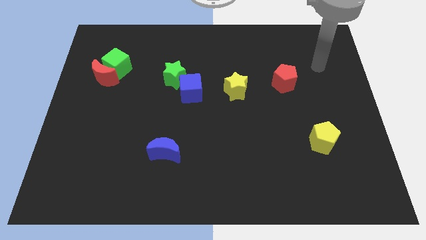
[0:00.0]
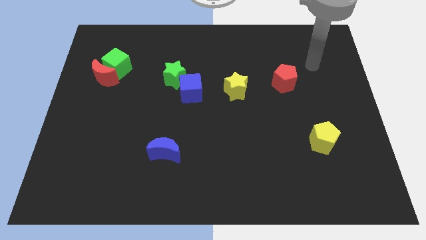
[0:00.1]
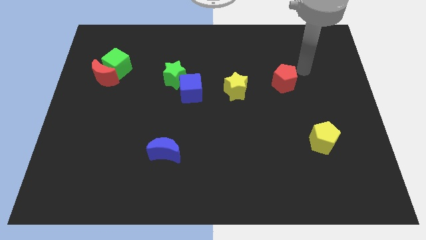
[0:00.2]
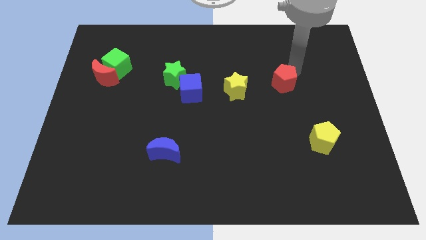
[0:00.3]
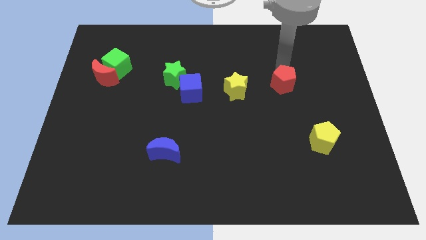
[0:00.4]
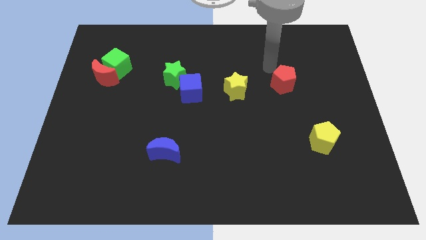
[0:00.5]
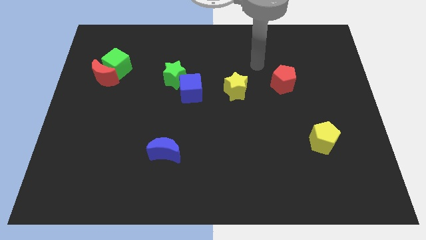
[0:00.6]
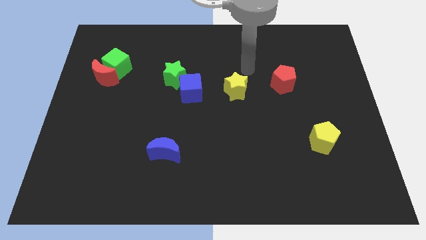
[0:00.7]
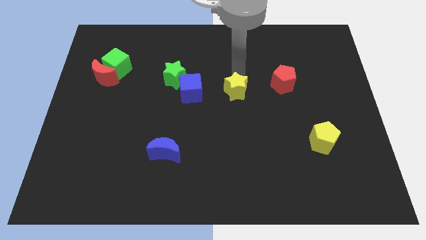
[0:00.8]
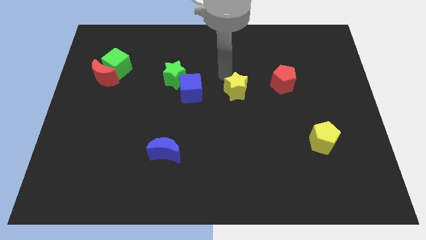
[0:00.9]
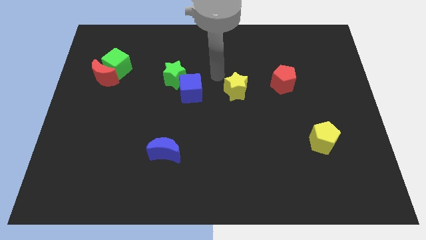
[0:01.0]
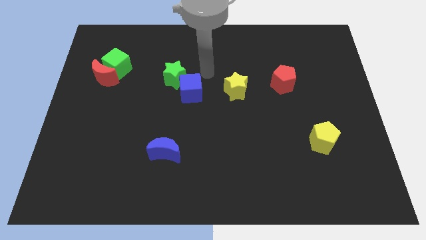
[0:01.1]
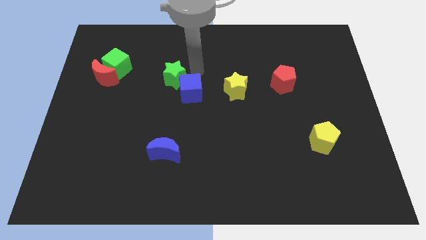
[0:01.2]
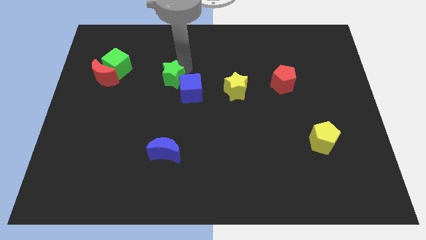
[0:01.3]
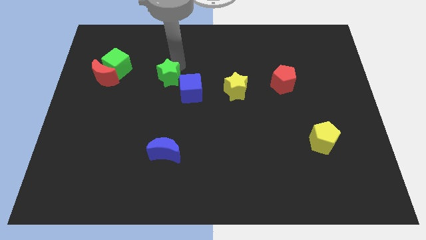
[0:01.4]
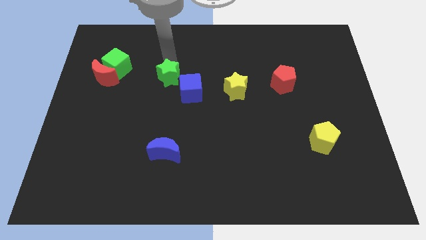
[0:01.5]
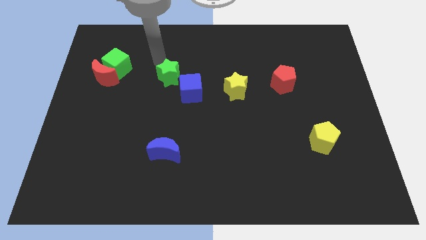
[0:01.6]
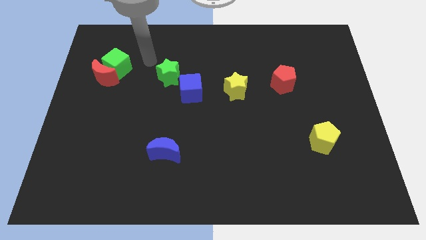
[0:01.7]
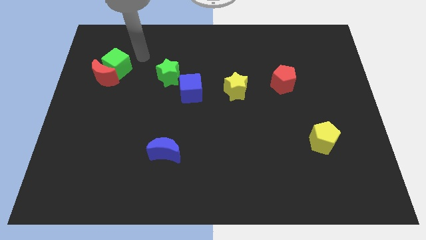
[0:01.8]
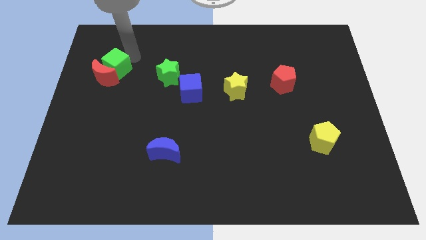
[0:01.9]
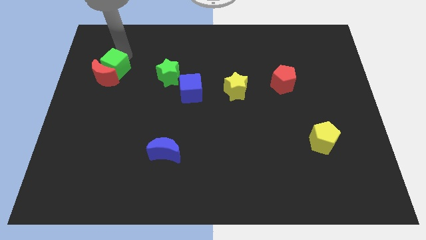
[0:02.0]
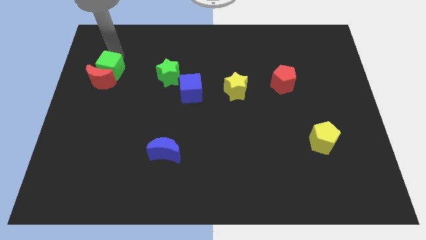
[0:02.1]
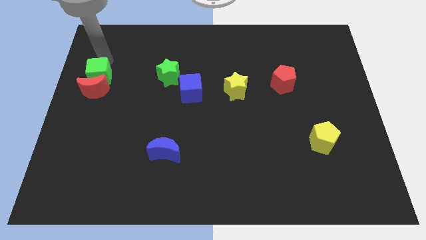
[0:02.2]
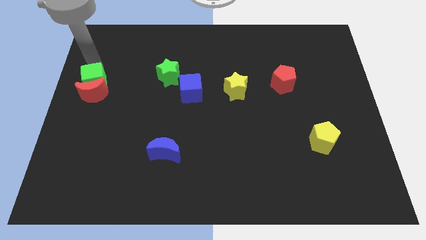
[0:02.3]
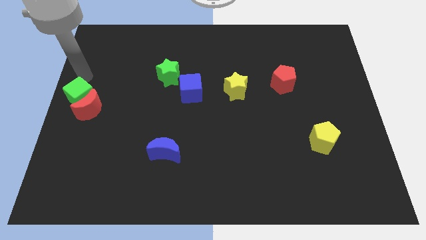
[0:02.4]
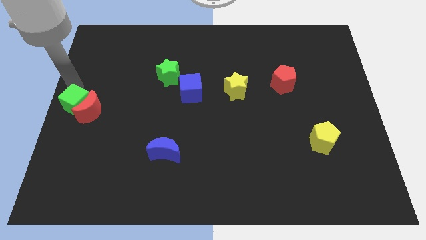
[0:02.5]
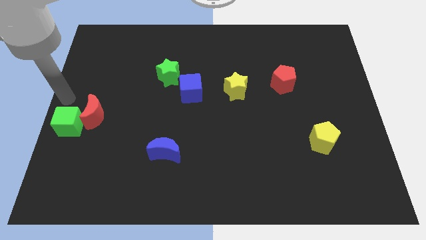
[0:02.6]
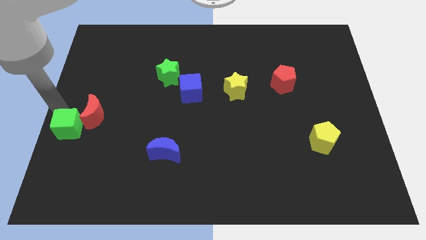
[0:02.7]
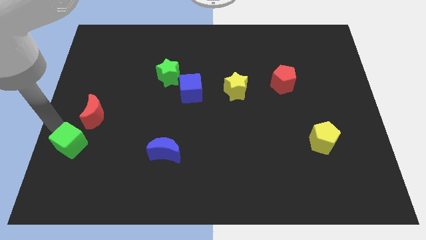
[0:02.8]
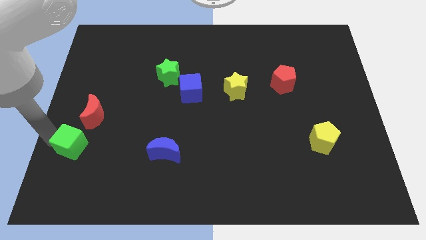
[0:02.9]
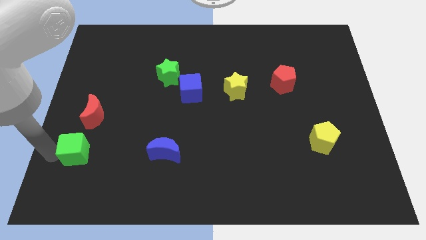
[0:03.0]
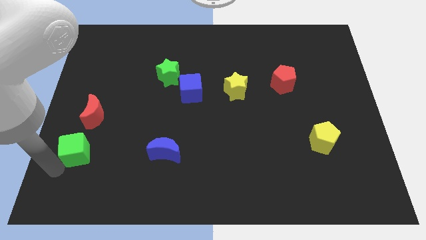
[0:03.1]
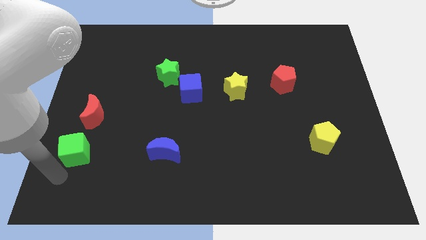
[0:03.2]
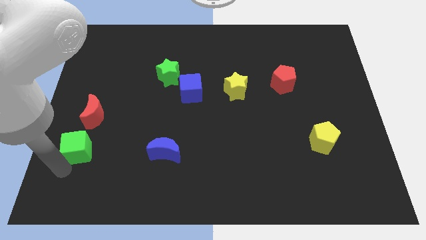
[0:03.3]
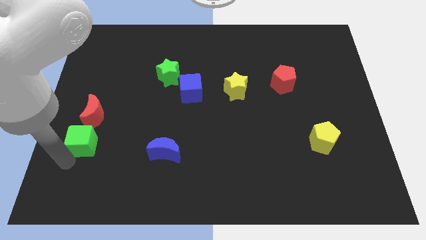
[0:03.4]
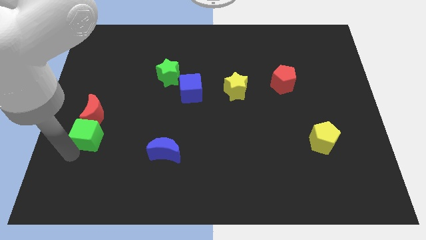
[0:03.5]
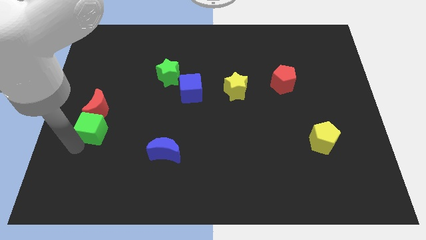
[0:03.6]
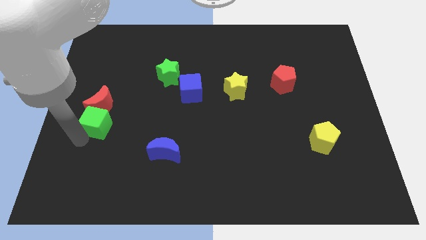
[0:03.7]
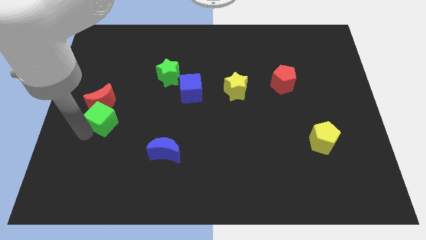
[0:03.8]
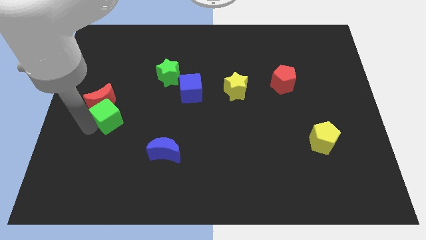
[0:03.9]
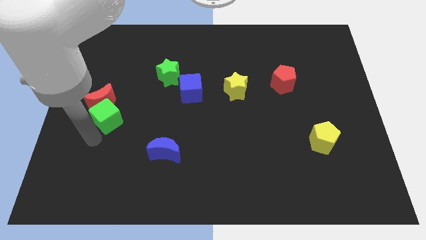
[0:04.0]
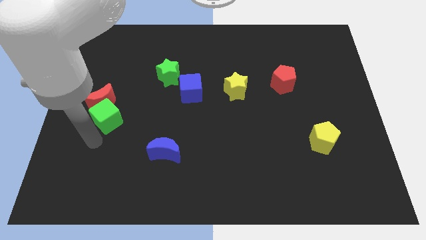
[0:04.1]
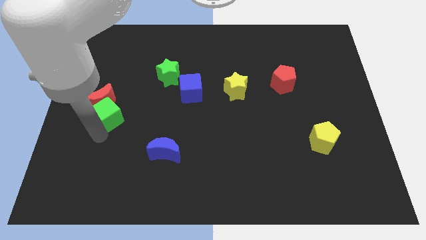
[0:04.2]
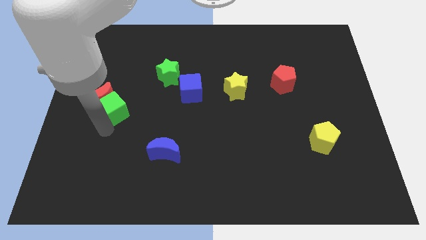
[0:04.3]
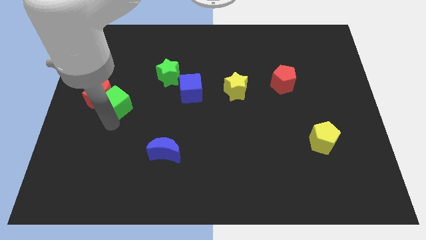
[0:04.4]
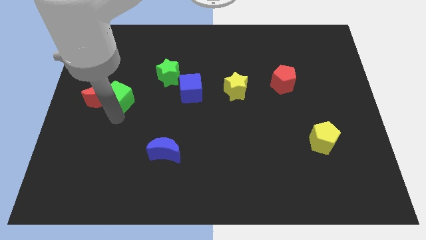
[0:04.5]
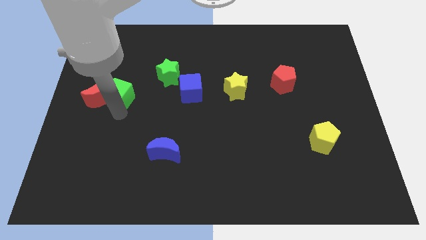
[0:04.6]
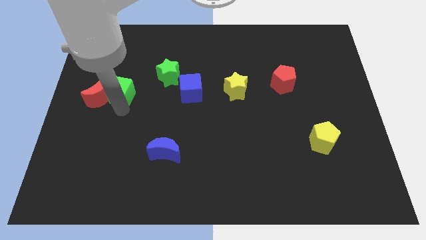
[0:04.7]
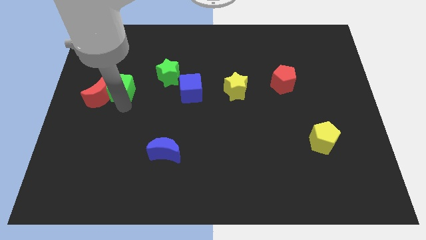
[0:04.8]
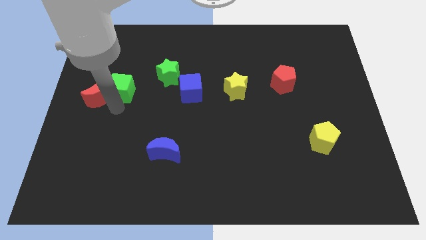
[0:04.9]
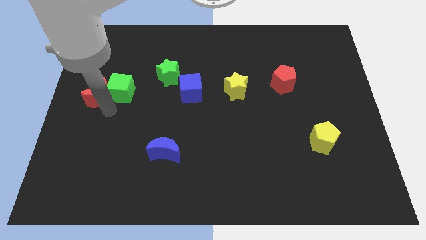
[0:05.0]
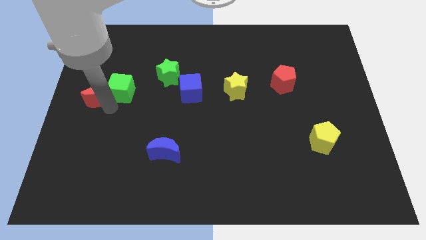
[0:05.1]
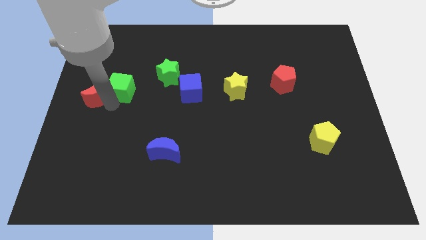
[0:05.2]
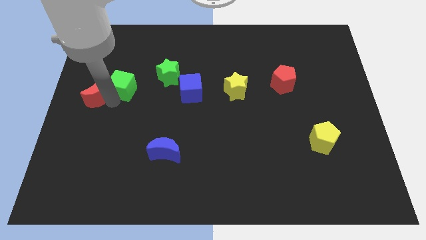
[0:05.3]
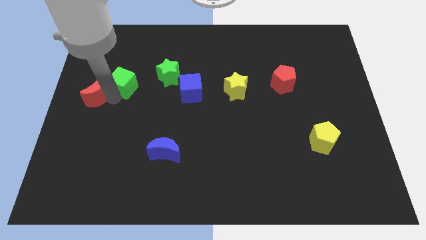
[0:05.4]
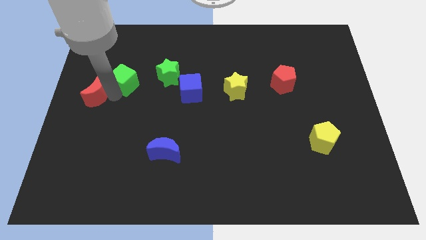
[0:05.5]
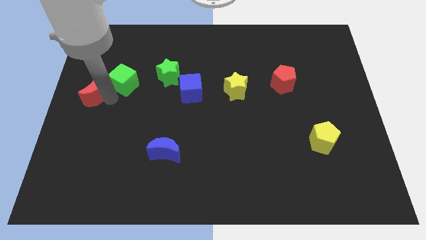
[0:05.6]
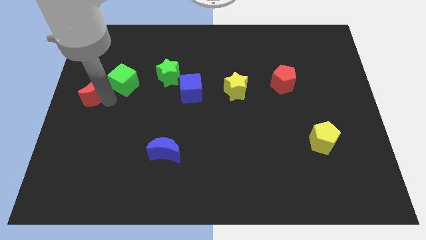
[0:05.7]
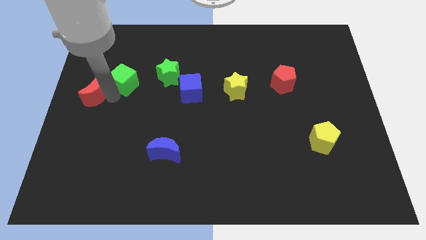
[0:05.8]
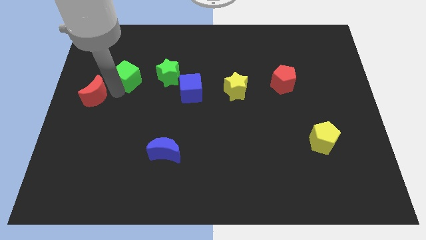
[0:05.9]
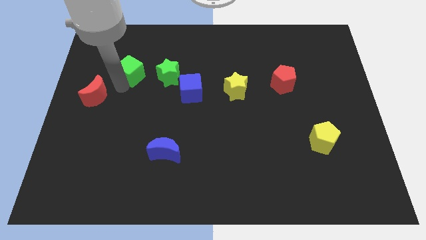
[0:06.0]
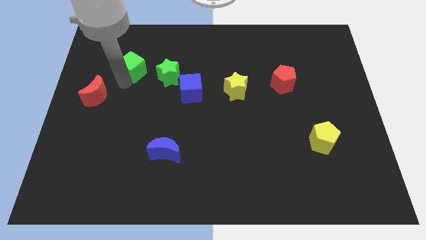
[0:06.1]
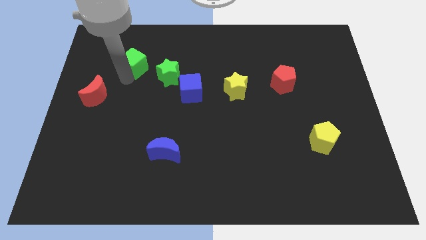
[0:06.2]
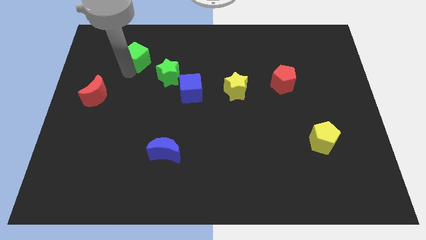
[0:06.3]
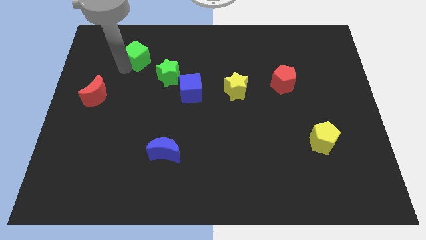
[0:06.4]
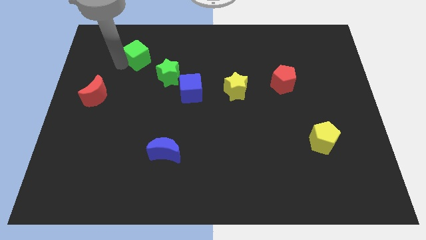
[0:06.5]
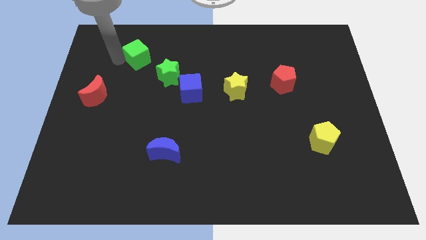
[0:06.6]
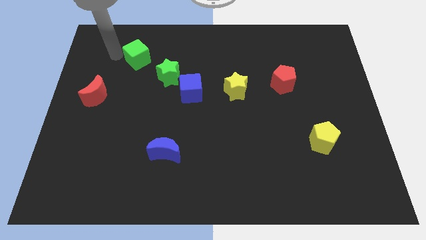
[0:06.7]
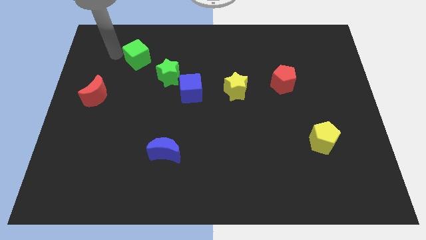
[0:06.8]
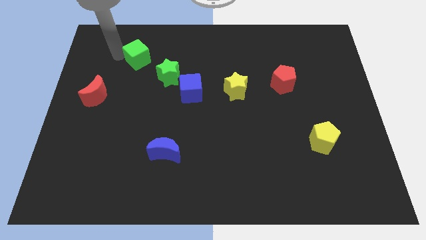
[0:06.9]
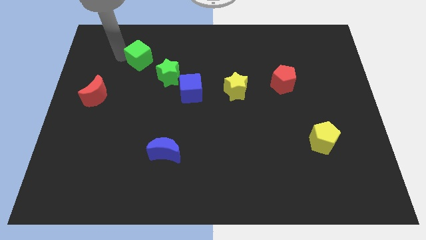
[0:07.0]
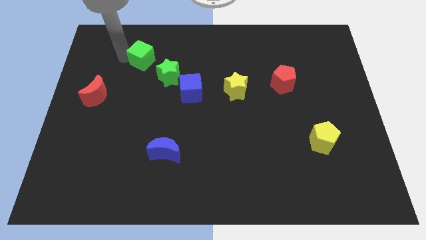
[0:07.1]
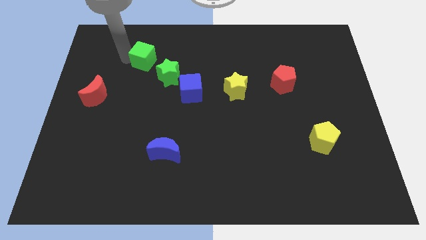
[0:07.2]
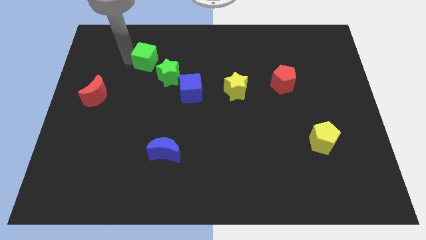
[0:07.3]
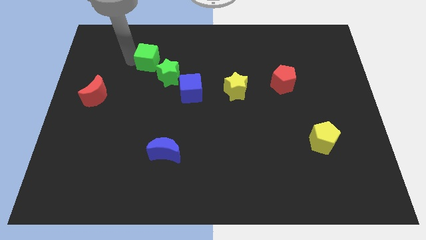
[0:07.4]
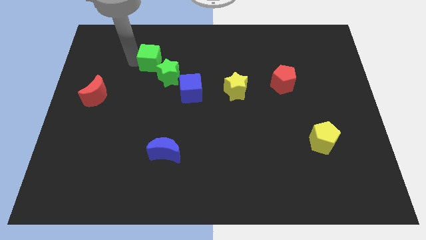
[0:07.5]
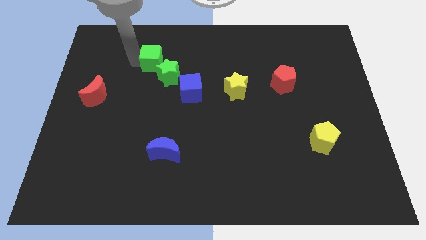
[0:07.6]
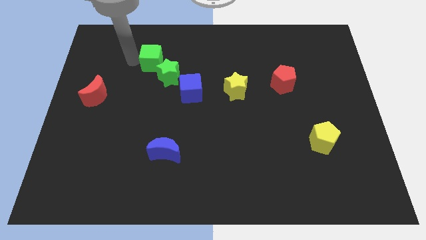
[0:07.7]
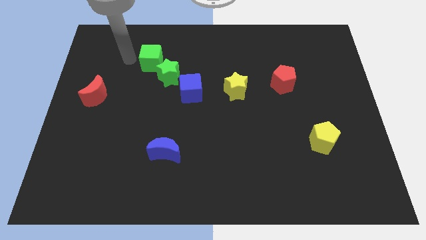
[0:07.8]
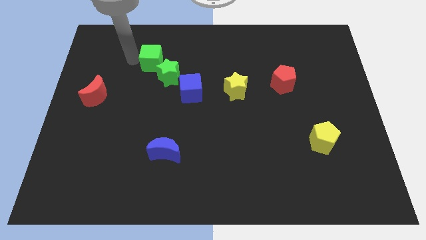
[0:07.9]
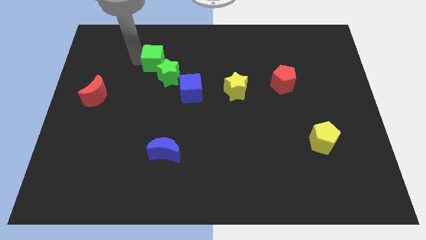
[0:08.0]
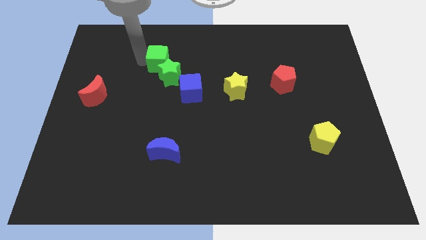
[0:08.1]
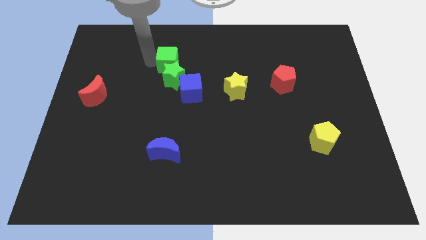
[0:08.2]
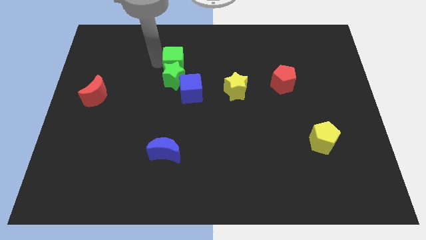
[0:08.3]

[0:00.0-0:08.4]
slide the green cube to the top of the blue cube
